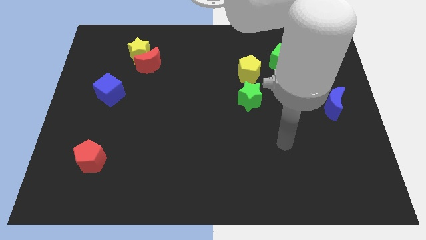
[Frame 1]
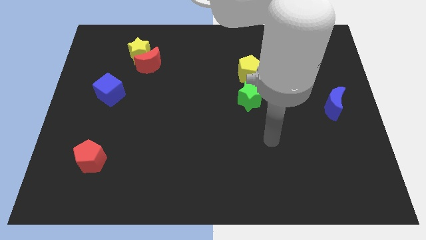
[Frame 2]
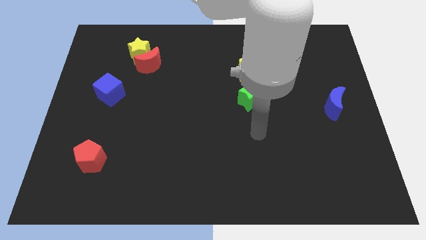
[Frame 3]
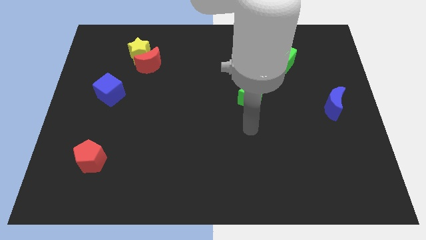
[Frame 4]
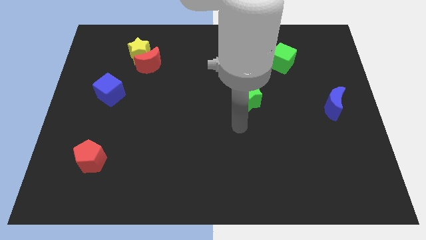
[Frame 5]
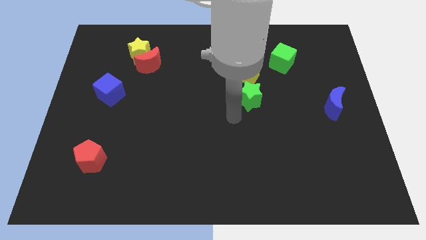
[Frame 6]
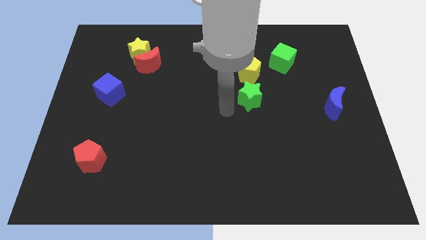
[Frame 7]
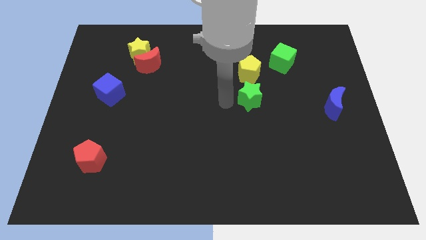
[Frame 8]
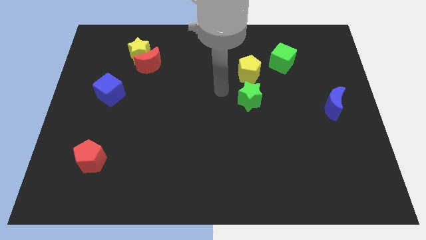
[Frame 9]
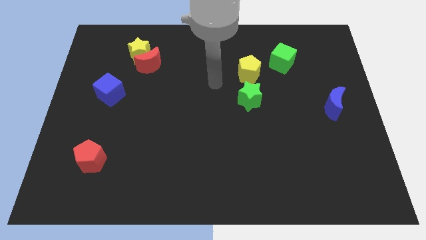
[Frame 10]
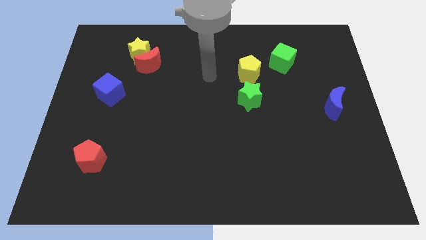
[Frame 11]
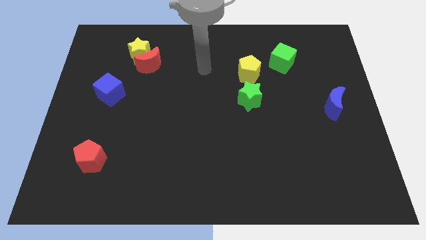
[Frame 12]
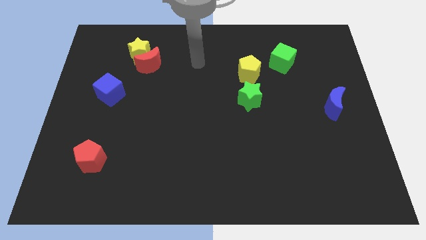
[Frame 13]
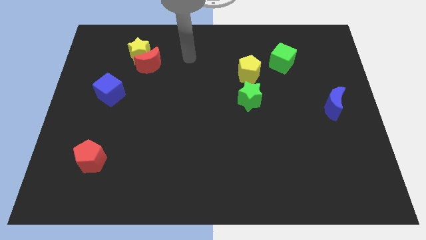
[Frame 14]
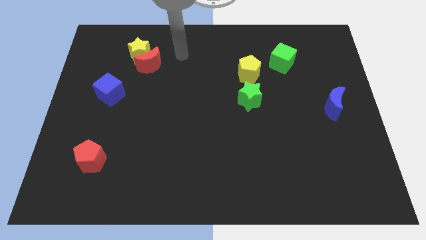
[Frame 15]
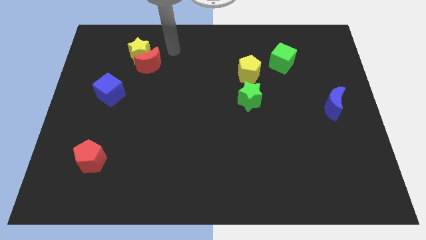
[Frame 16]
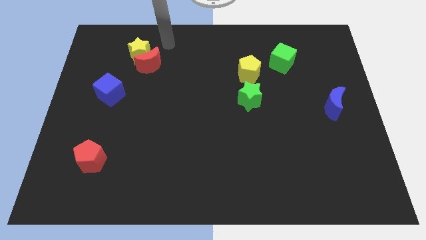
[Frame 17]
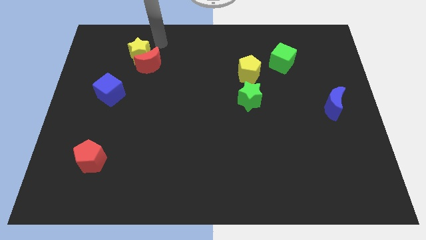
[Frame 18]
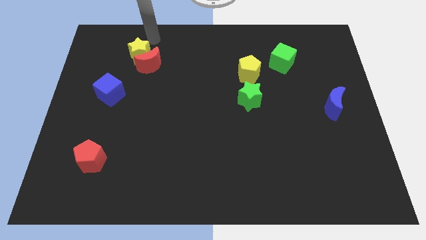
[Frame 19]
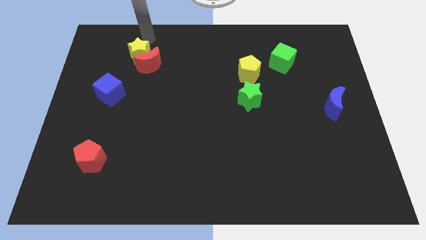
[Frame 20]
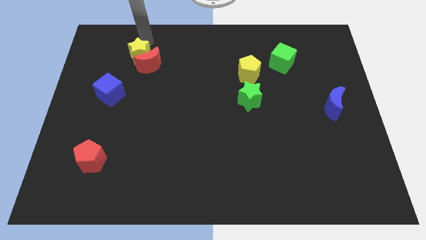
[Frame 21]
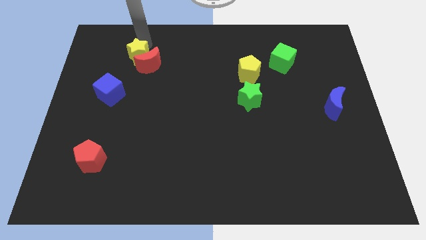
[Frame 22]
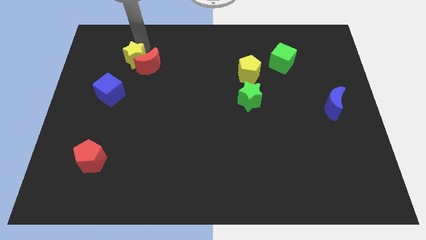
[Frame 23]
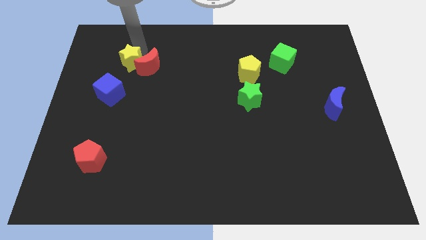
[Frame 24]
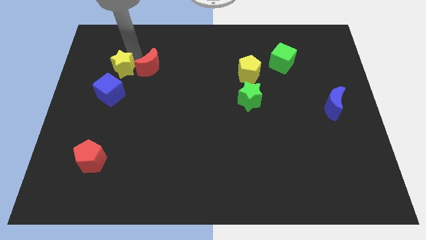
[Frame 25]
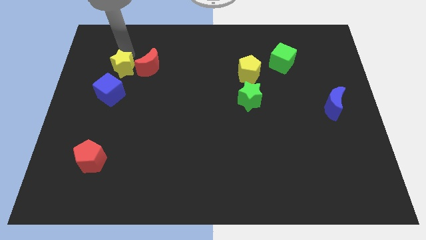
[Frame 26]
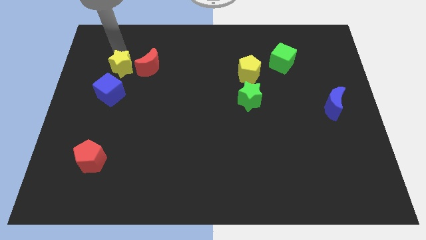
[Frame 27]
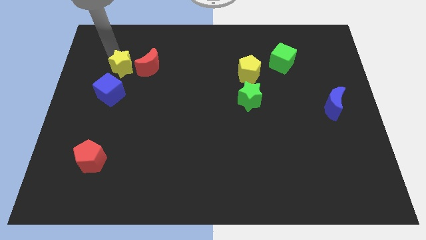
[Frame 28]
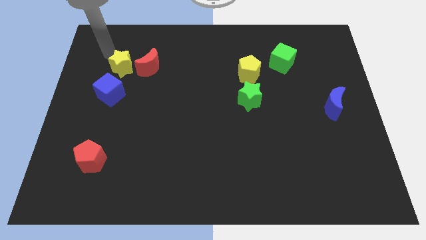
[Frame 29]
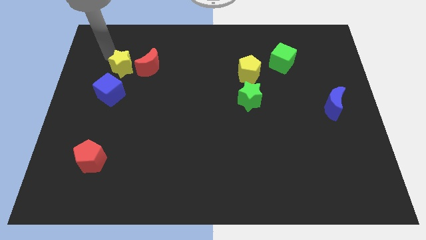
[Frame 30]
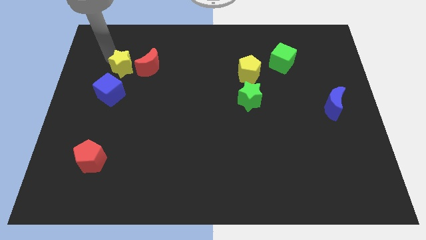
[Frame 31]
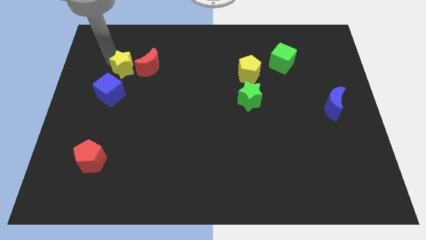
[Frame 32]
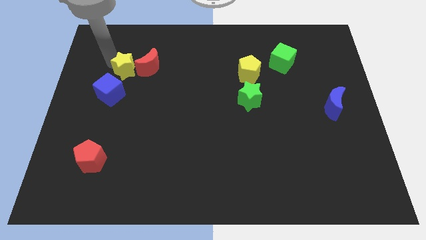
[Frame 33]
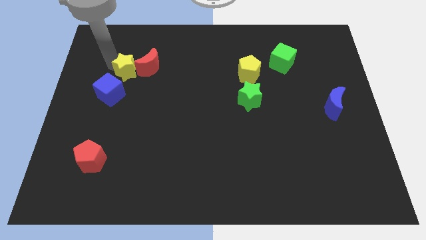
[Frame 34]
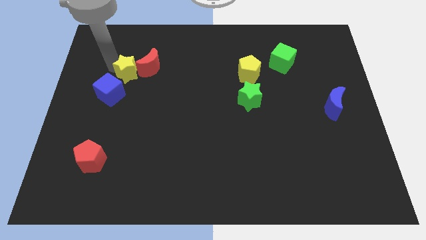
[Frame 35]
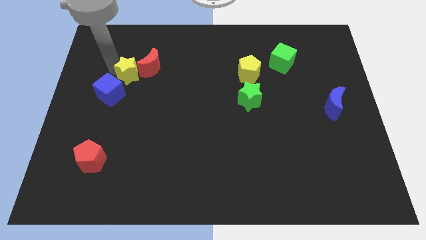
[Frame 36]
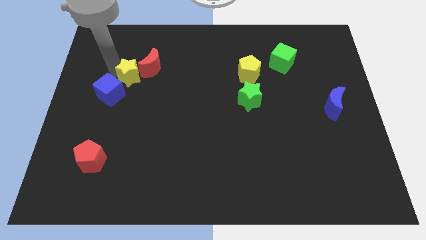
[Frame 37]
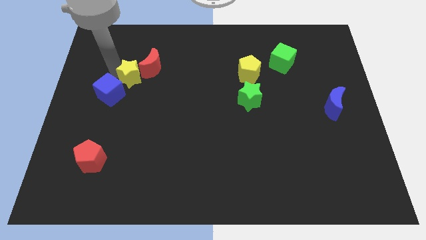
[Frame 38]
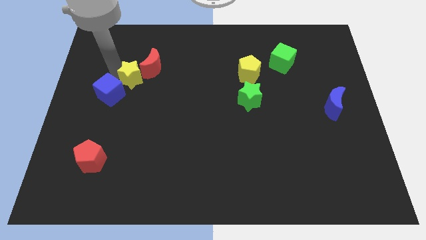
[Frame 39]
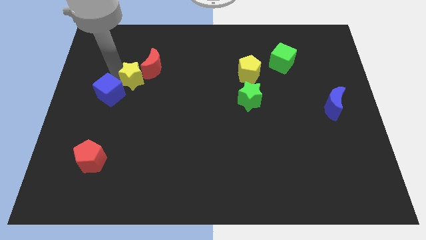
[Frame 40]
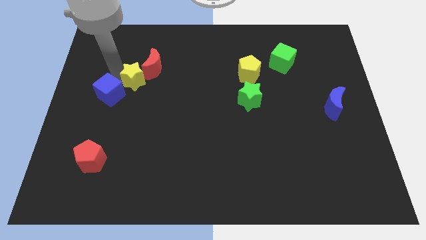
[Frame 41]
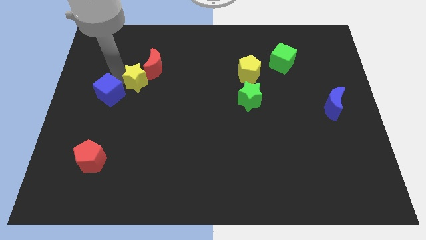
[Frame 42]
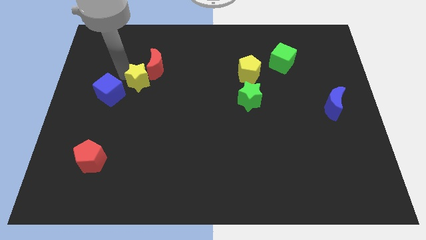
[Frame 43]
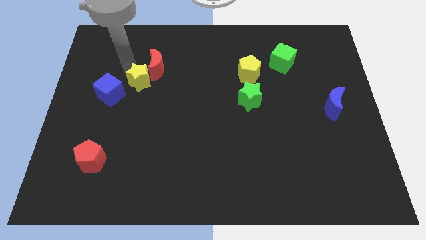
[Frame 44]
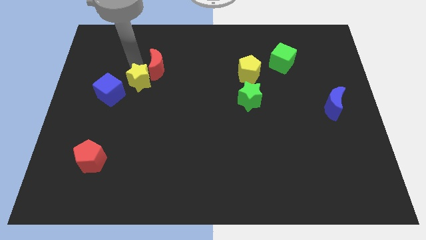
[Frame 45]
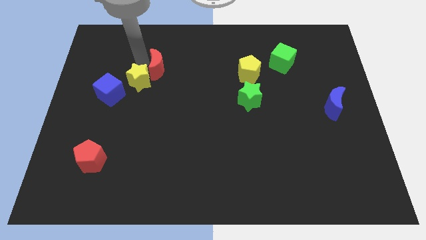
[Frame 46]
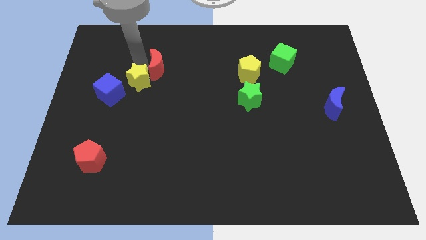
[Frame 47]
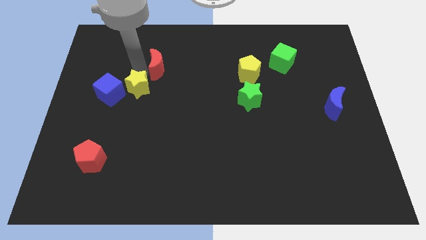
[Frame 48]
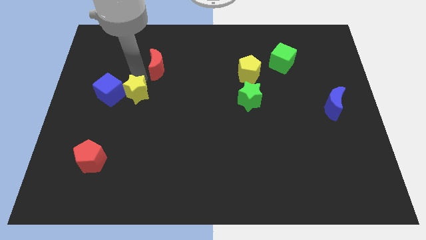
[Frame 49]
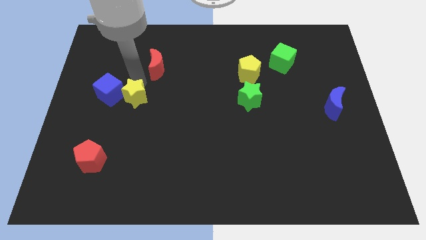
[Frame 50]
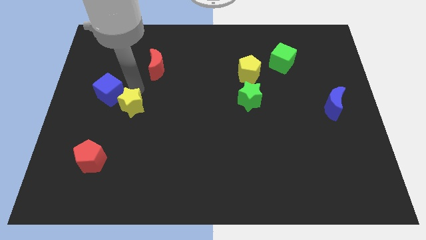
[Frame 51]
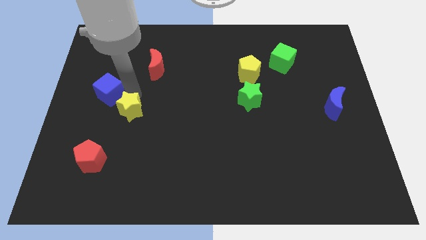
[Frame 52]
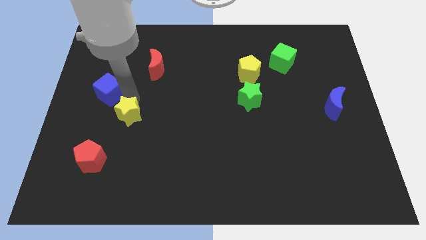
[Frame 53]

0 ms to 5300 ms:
push the yellow star down

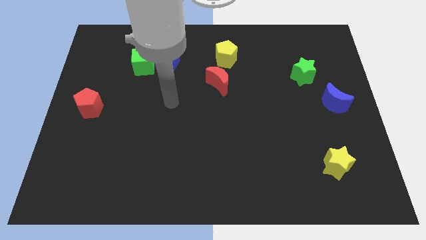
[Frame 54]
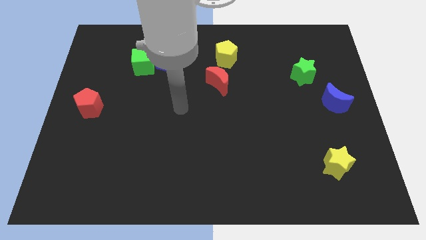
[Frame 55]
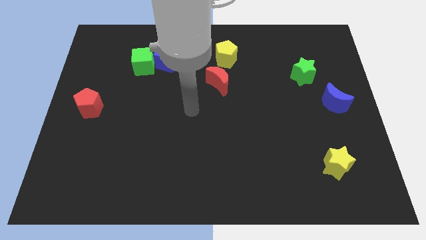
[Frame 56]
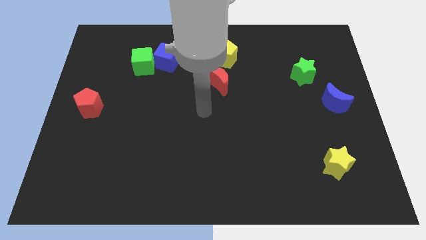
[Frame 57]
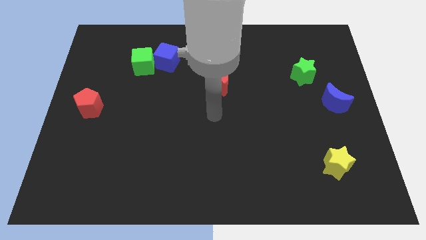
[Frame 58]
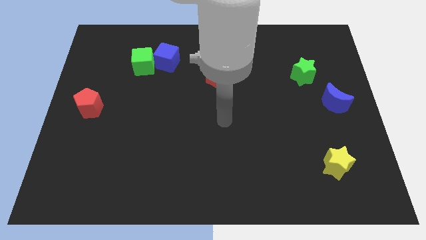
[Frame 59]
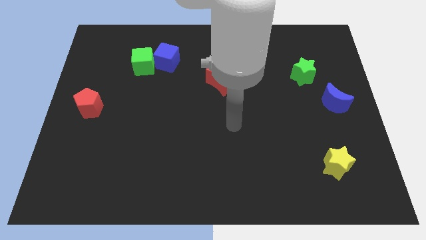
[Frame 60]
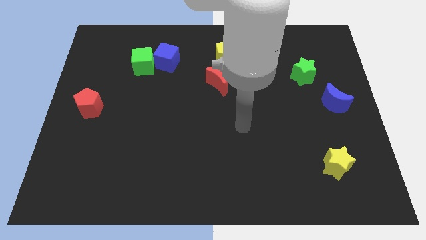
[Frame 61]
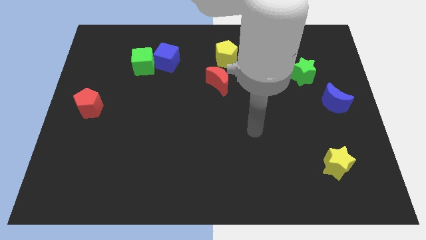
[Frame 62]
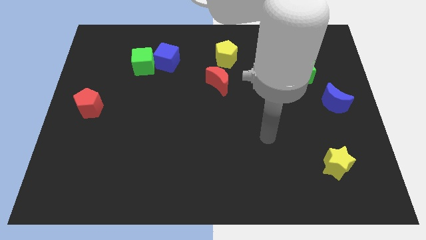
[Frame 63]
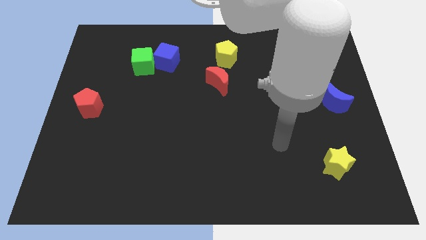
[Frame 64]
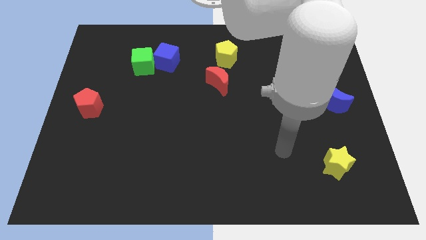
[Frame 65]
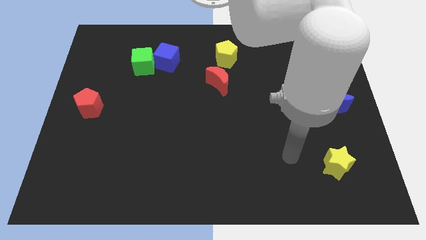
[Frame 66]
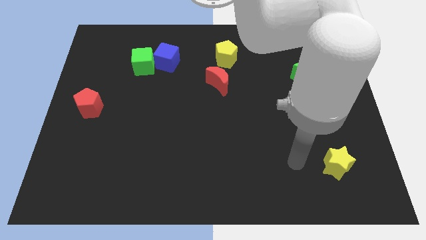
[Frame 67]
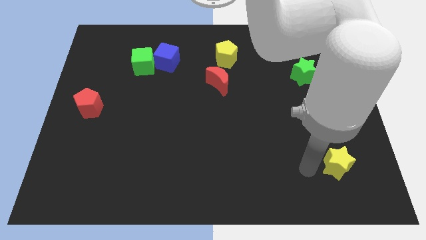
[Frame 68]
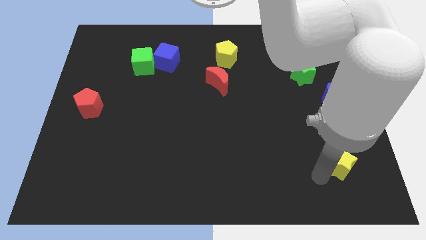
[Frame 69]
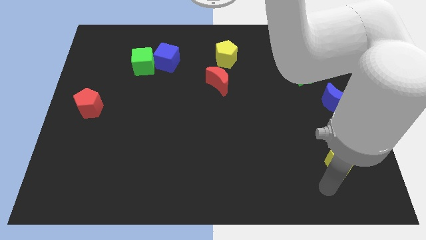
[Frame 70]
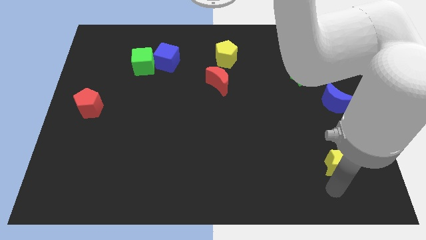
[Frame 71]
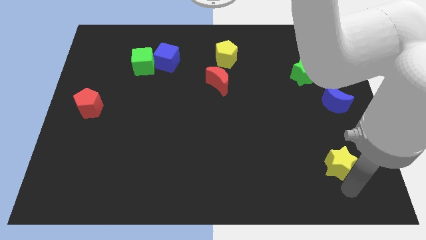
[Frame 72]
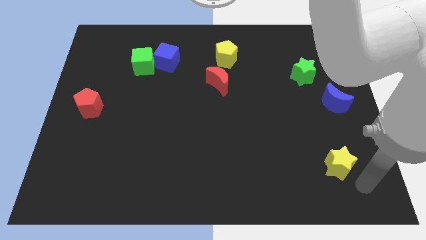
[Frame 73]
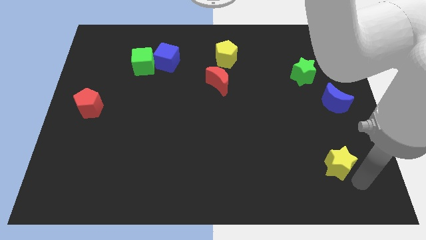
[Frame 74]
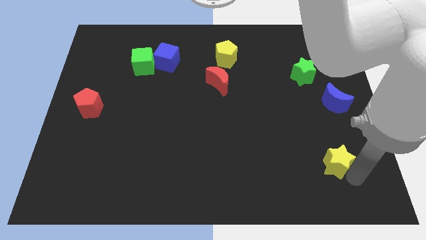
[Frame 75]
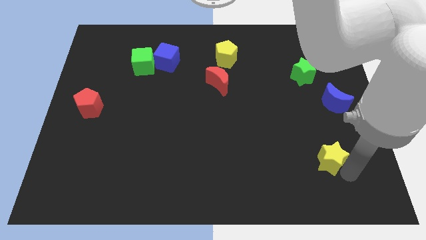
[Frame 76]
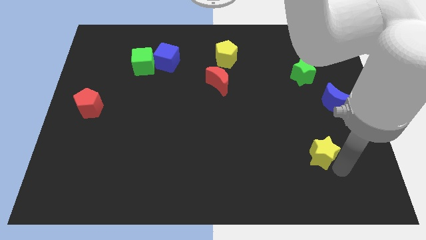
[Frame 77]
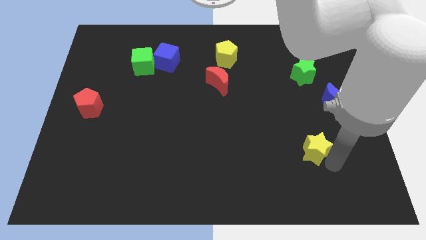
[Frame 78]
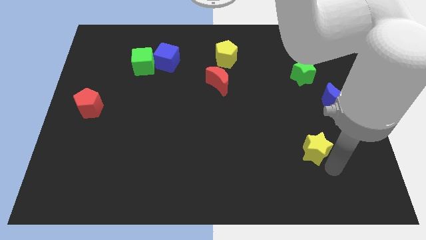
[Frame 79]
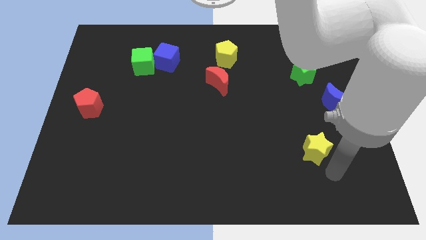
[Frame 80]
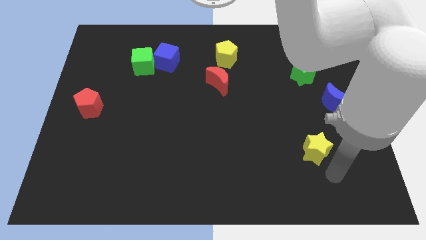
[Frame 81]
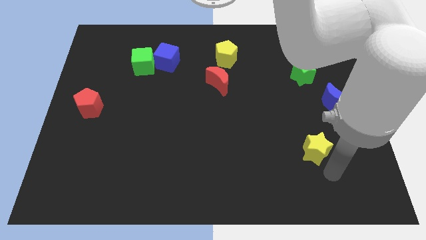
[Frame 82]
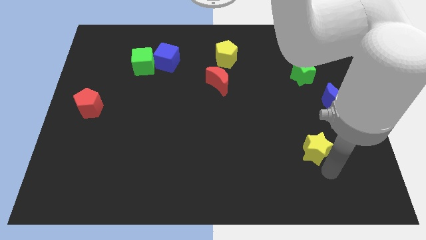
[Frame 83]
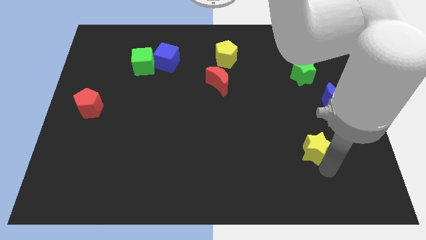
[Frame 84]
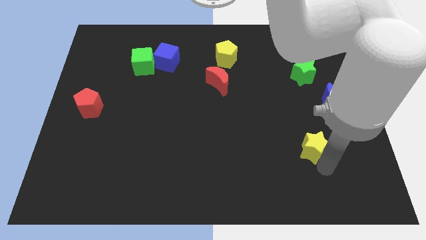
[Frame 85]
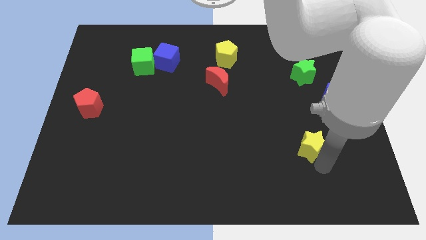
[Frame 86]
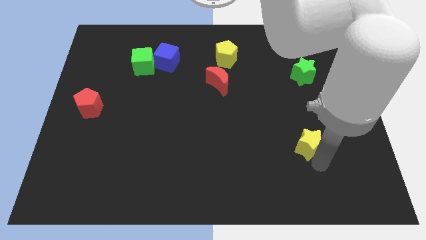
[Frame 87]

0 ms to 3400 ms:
move the yellow star a little bit up and then to the left
